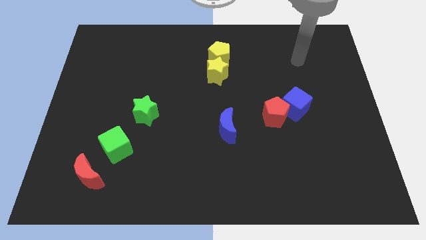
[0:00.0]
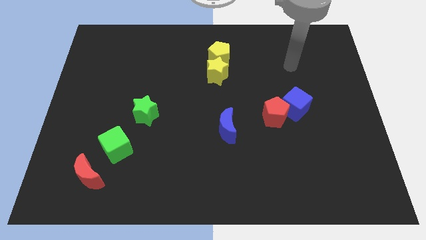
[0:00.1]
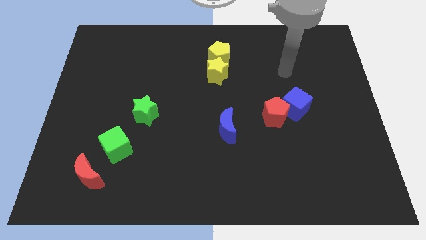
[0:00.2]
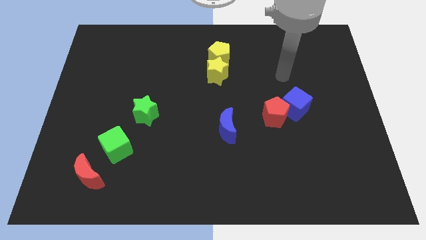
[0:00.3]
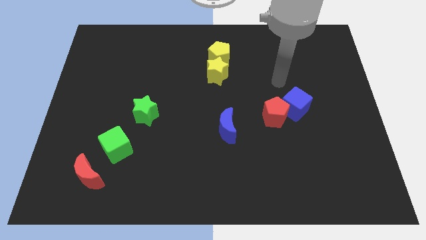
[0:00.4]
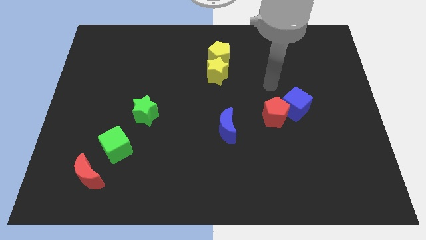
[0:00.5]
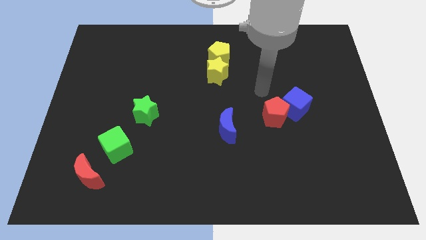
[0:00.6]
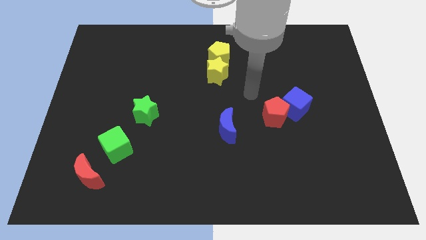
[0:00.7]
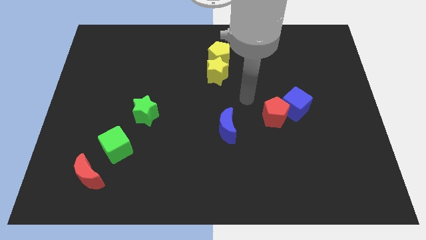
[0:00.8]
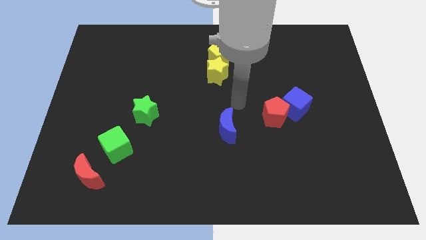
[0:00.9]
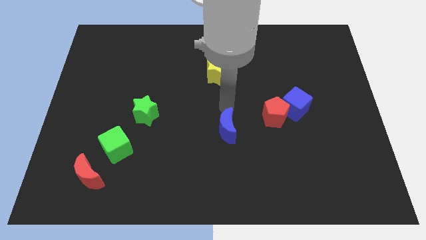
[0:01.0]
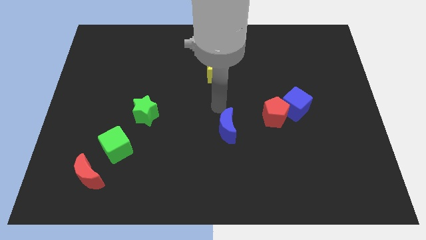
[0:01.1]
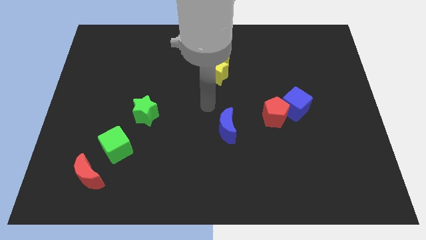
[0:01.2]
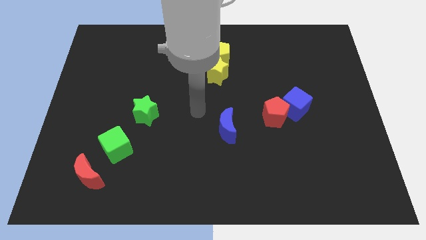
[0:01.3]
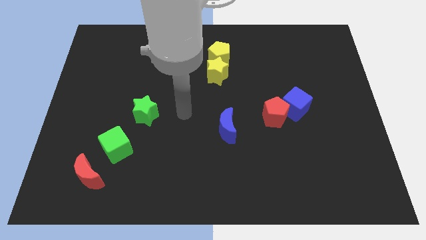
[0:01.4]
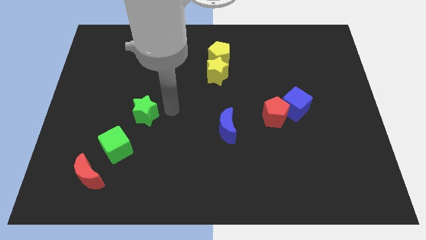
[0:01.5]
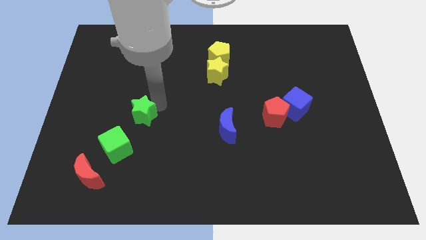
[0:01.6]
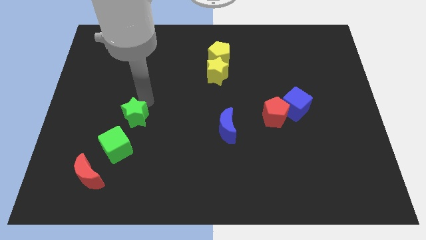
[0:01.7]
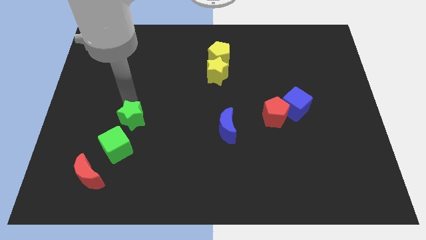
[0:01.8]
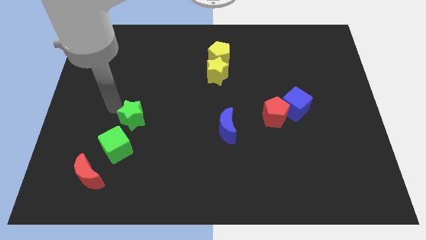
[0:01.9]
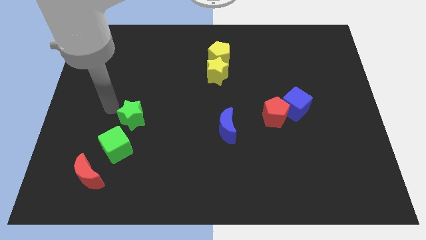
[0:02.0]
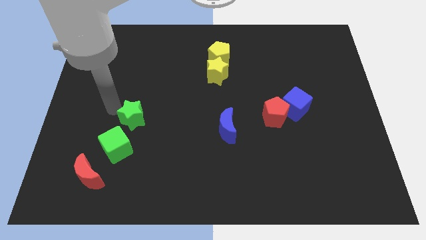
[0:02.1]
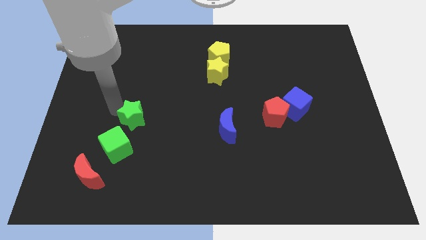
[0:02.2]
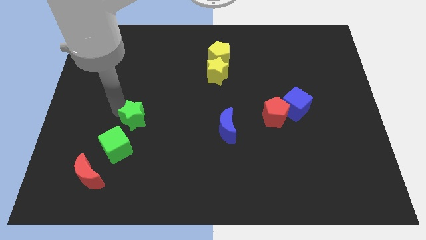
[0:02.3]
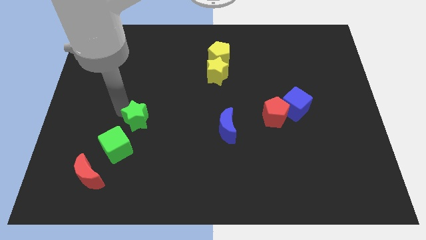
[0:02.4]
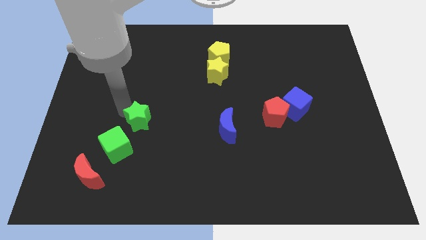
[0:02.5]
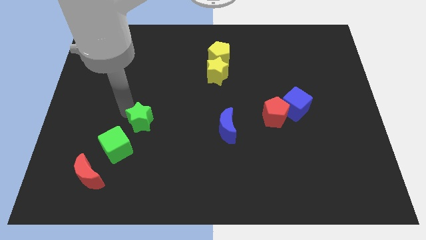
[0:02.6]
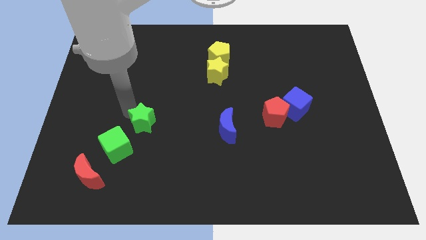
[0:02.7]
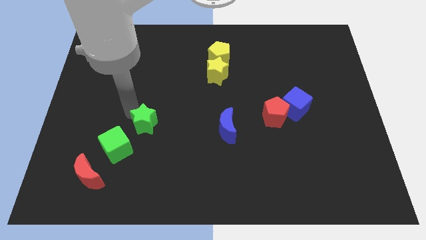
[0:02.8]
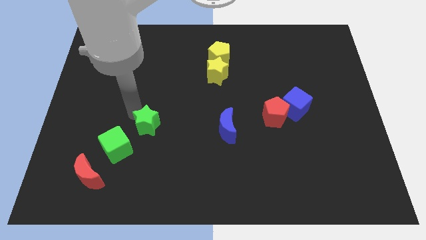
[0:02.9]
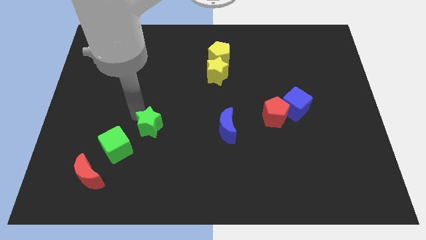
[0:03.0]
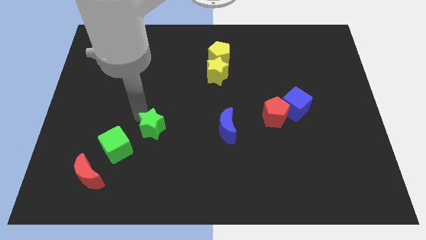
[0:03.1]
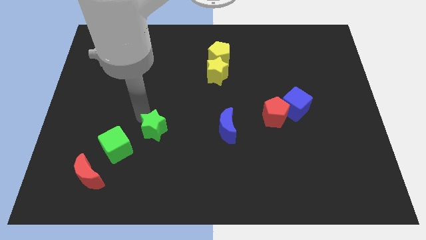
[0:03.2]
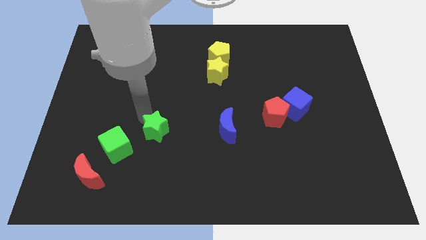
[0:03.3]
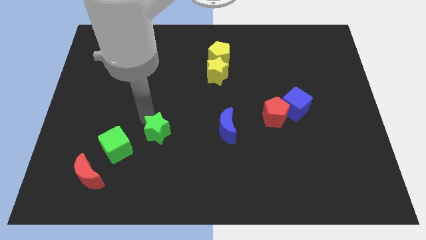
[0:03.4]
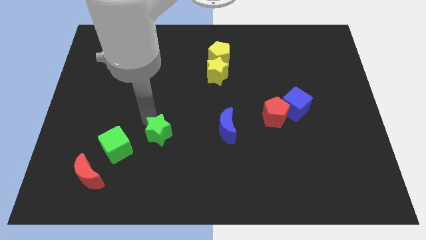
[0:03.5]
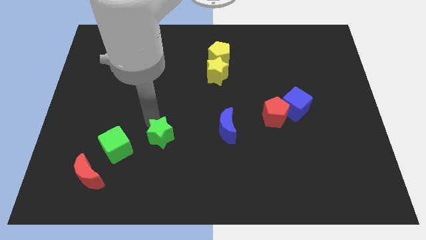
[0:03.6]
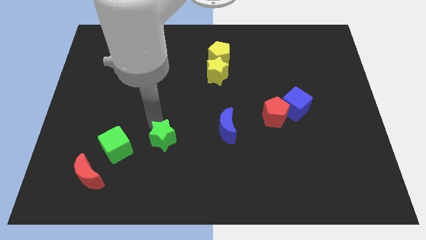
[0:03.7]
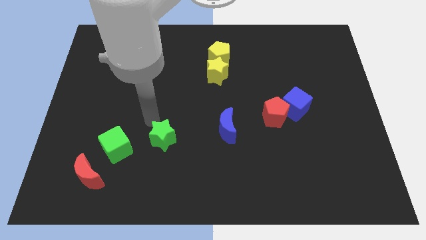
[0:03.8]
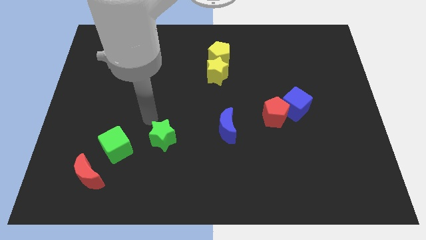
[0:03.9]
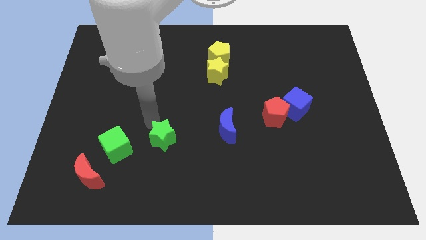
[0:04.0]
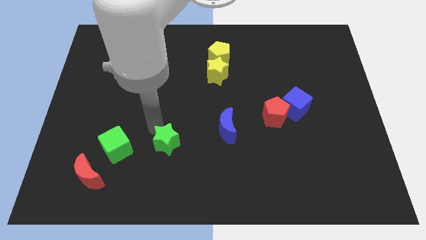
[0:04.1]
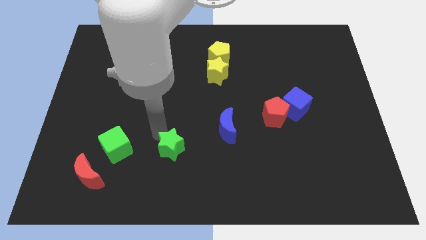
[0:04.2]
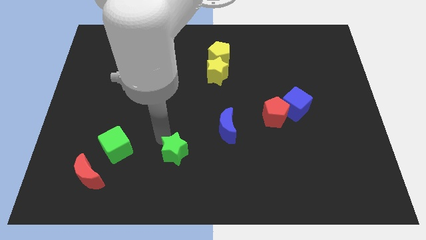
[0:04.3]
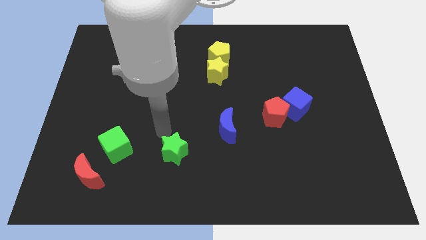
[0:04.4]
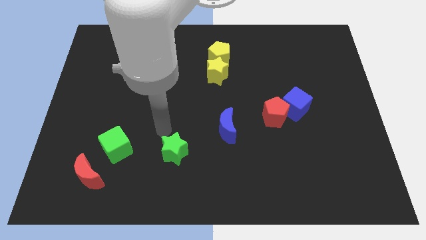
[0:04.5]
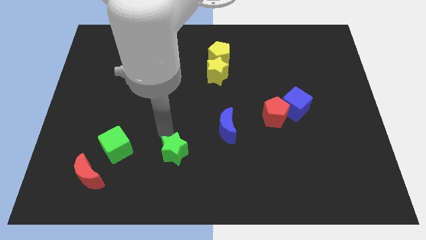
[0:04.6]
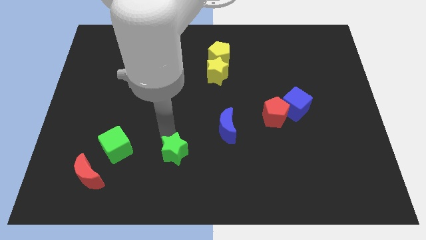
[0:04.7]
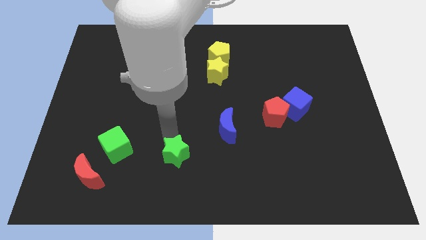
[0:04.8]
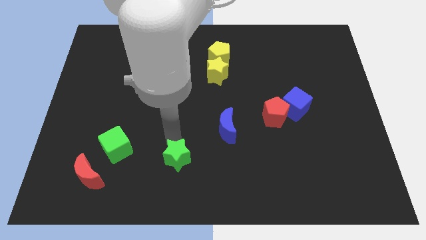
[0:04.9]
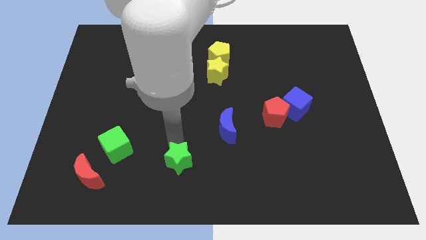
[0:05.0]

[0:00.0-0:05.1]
push the green star to the bottom side

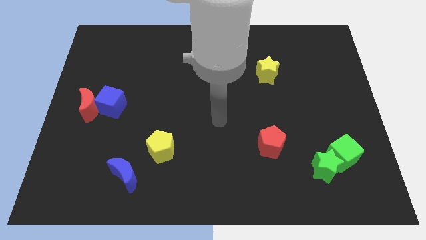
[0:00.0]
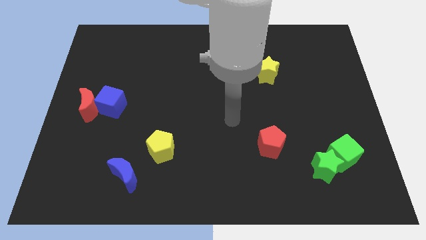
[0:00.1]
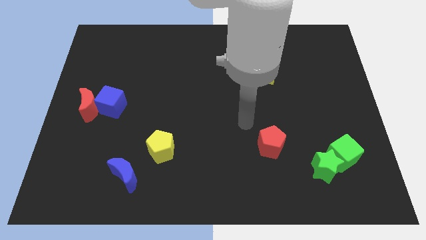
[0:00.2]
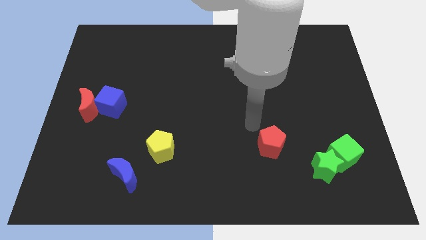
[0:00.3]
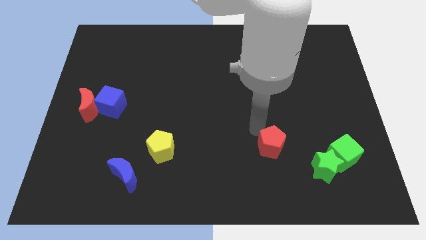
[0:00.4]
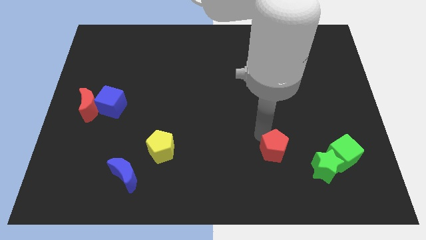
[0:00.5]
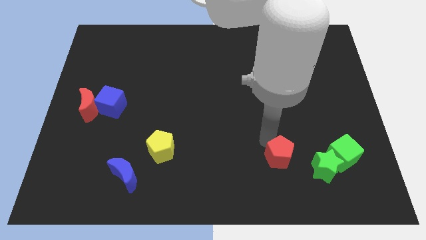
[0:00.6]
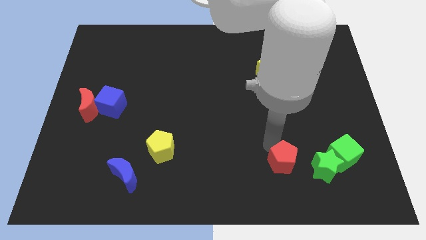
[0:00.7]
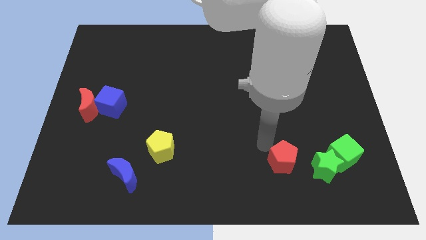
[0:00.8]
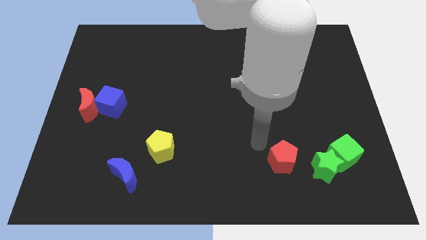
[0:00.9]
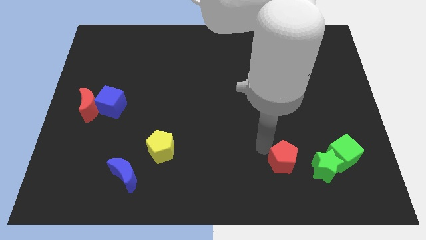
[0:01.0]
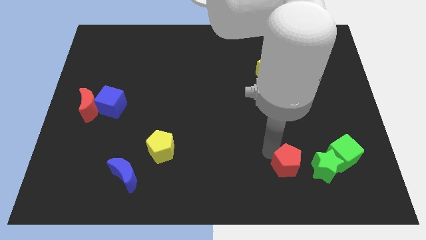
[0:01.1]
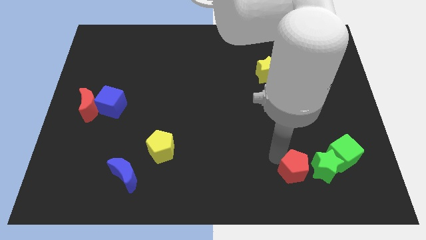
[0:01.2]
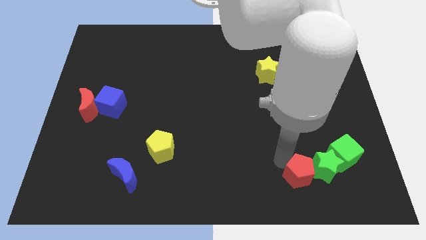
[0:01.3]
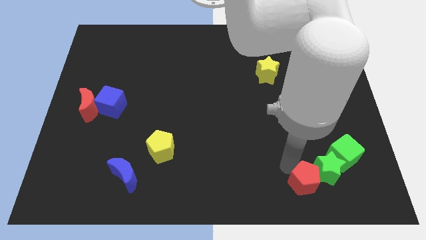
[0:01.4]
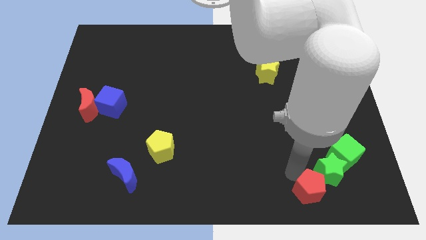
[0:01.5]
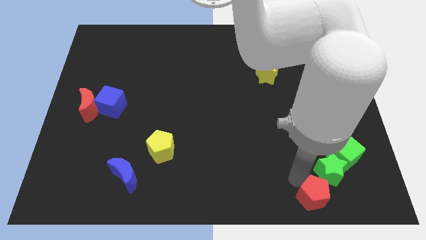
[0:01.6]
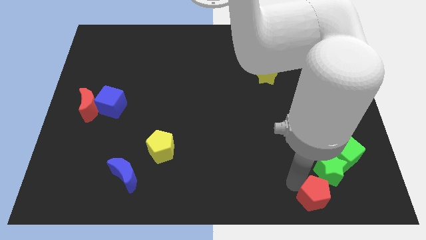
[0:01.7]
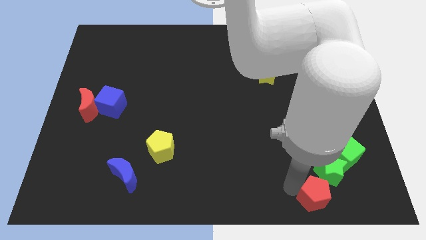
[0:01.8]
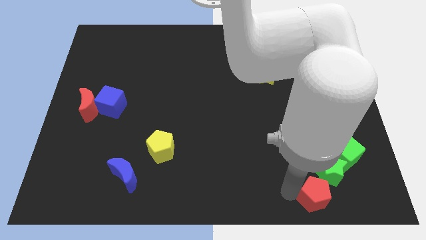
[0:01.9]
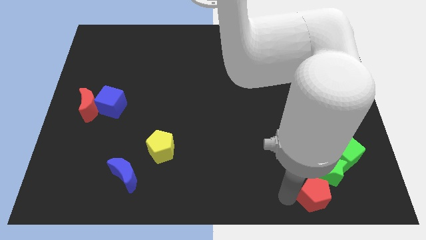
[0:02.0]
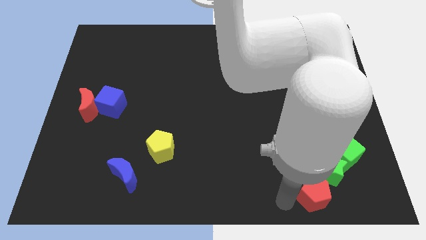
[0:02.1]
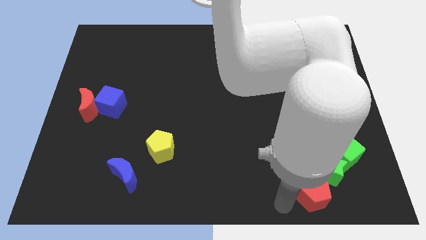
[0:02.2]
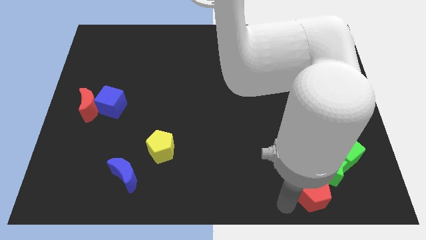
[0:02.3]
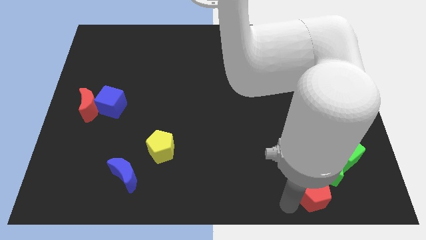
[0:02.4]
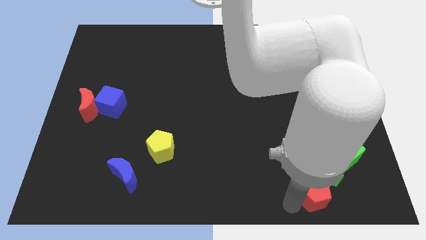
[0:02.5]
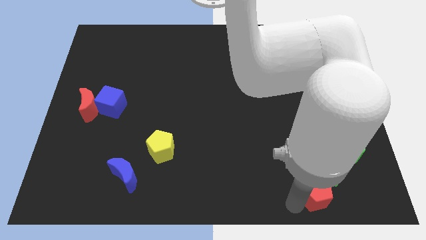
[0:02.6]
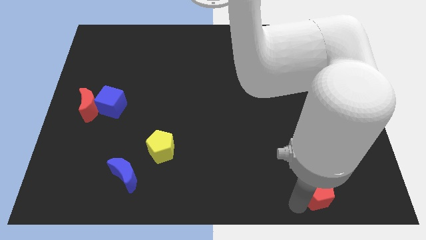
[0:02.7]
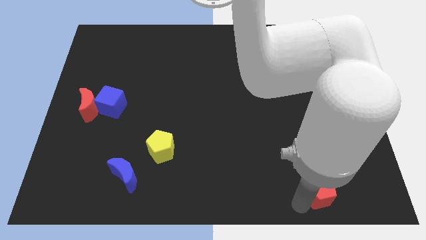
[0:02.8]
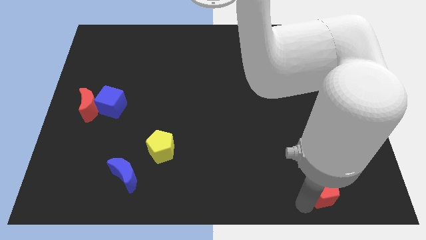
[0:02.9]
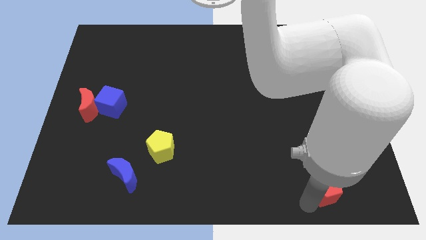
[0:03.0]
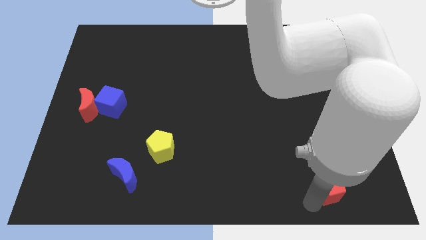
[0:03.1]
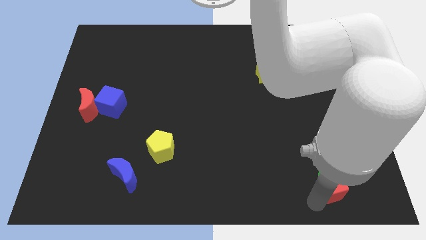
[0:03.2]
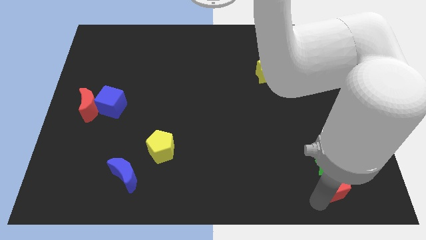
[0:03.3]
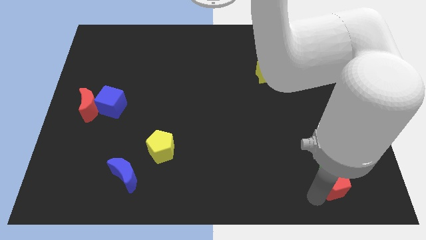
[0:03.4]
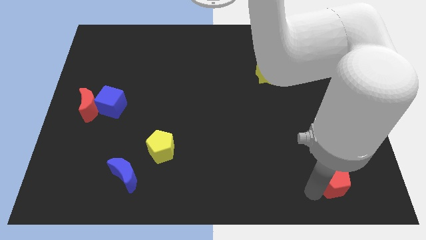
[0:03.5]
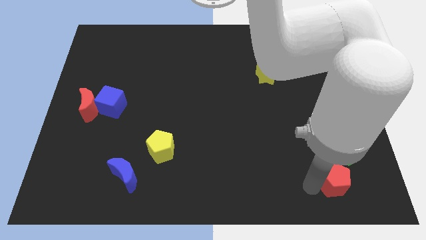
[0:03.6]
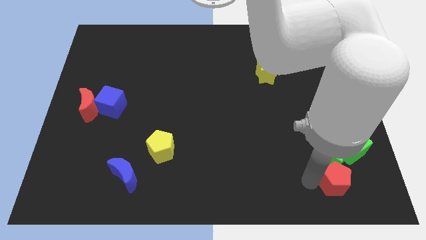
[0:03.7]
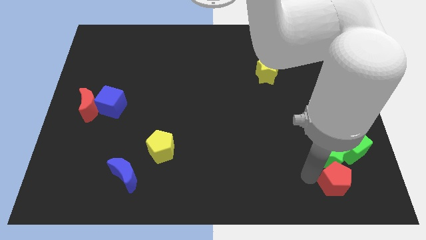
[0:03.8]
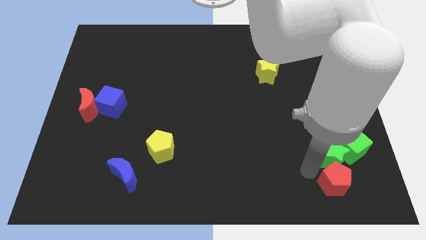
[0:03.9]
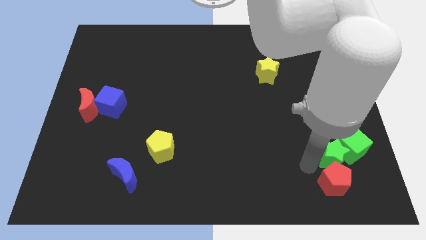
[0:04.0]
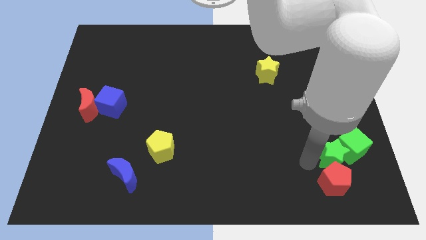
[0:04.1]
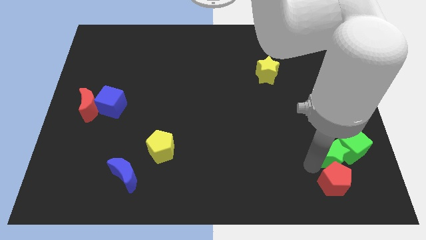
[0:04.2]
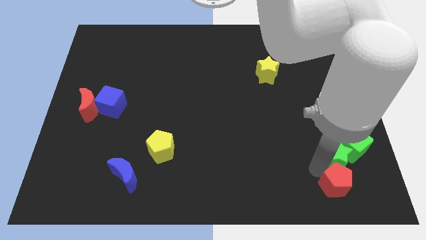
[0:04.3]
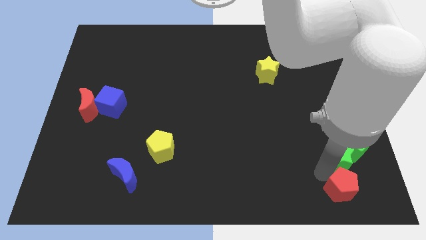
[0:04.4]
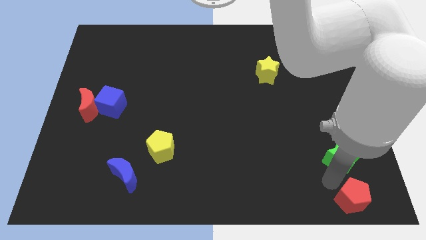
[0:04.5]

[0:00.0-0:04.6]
move the red pentagon to the lower right corner
